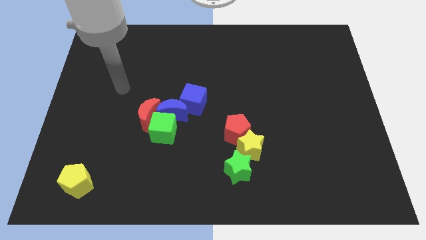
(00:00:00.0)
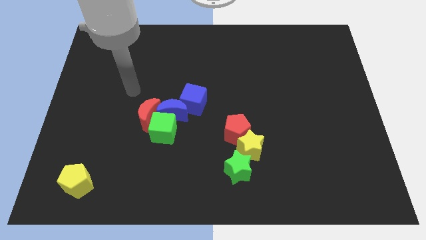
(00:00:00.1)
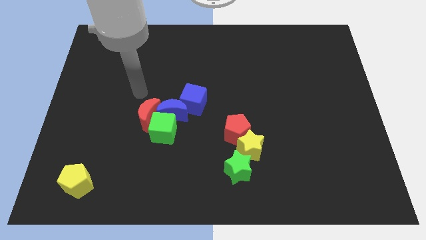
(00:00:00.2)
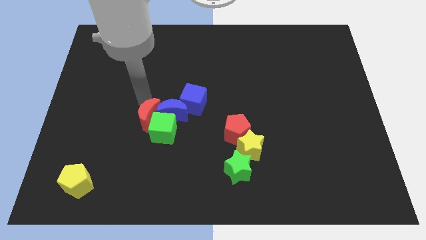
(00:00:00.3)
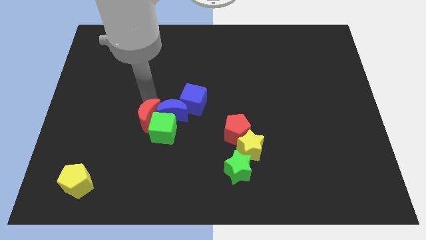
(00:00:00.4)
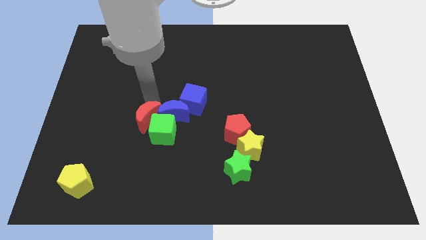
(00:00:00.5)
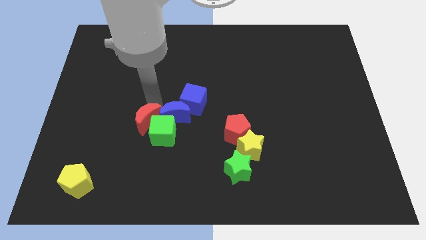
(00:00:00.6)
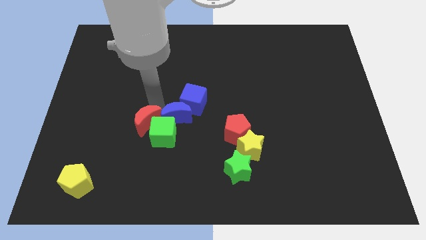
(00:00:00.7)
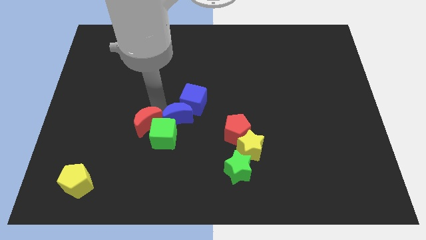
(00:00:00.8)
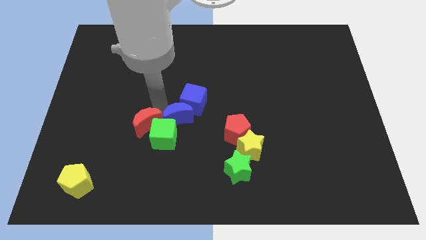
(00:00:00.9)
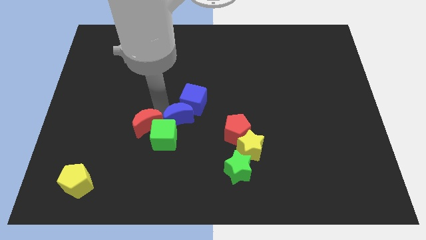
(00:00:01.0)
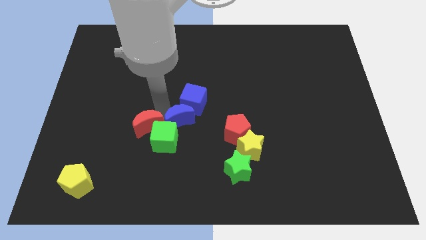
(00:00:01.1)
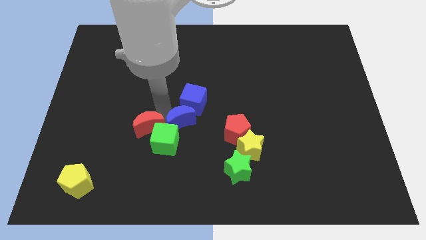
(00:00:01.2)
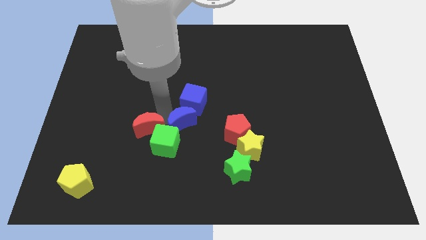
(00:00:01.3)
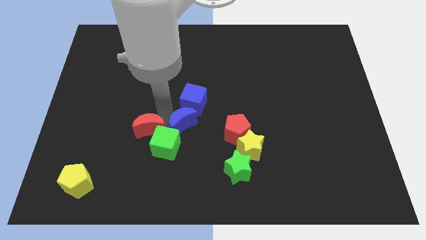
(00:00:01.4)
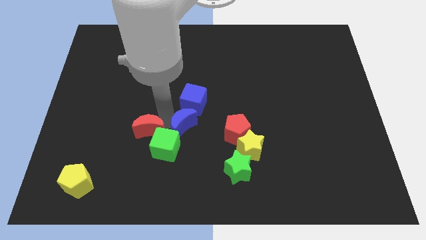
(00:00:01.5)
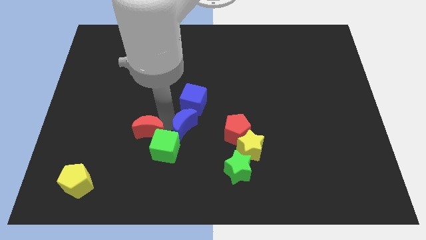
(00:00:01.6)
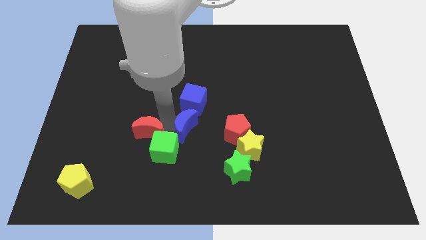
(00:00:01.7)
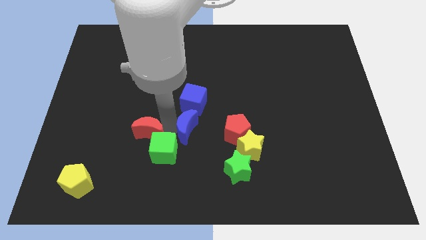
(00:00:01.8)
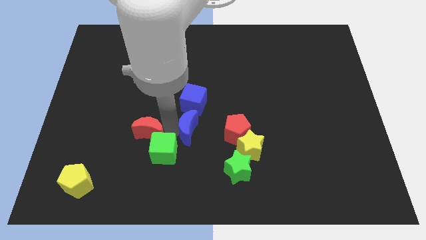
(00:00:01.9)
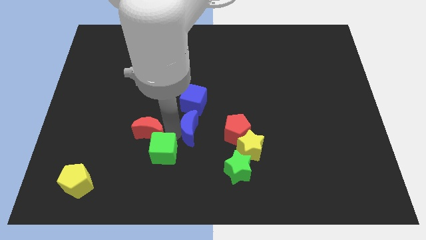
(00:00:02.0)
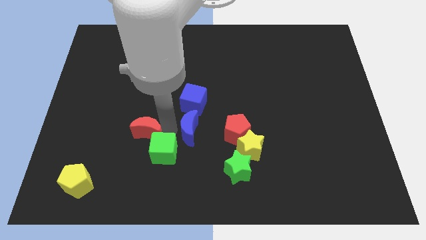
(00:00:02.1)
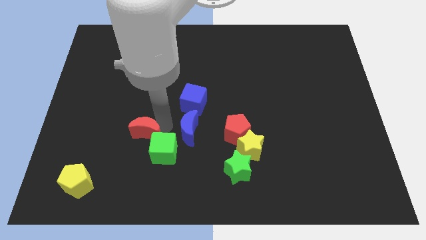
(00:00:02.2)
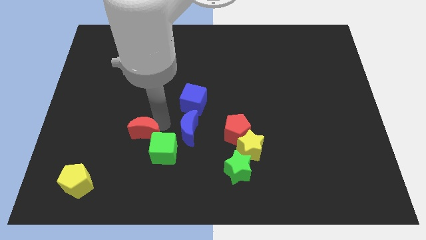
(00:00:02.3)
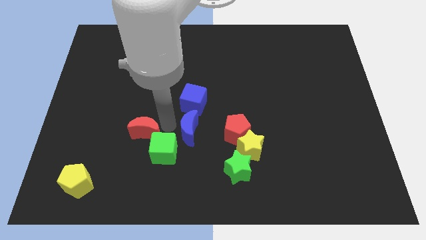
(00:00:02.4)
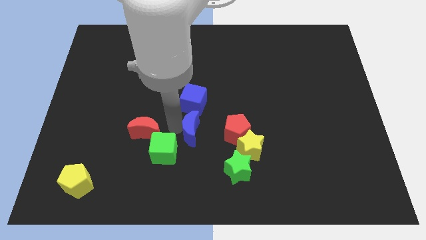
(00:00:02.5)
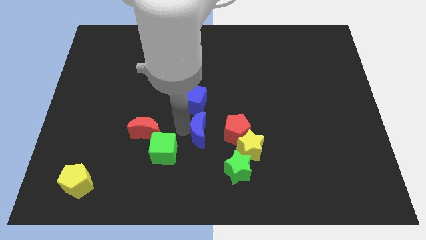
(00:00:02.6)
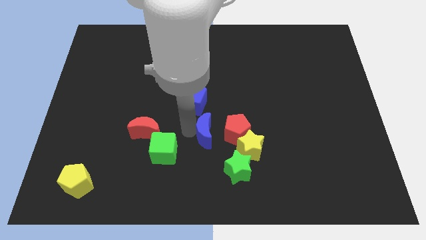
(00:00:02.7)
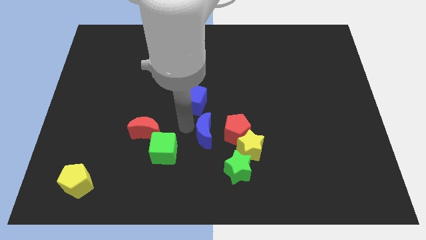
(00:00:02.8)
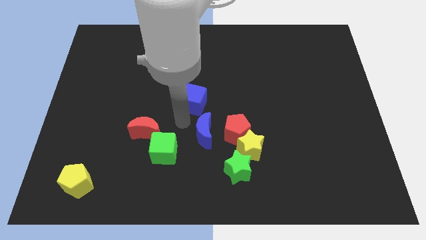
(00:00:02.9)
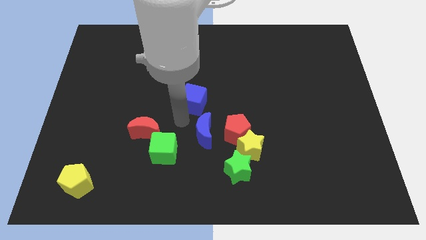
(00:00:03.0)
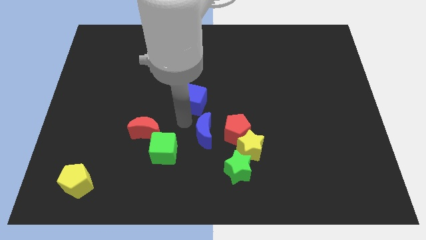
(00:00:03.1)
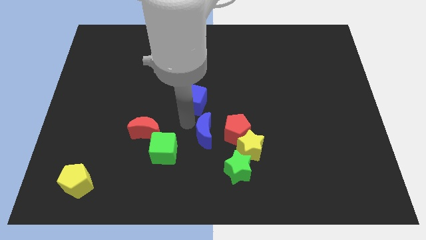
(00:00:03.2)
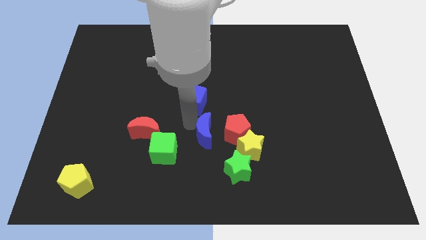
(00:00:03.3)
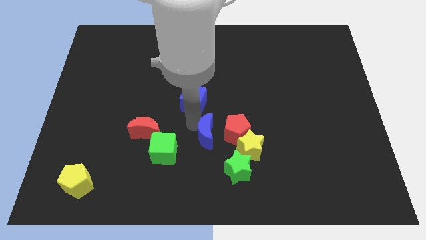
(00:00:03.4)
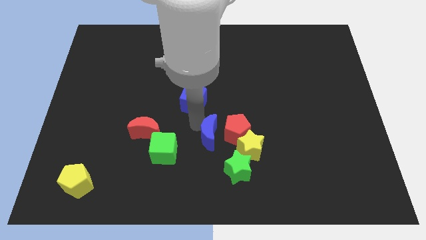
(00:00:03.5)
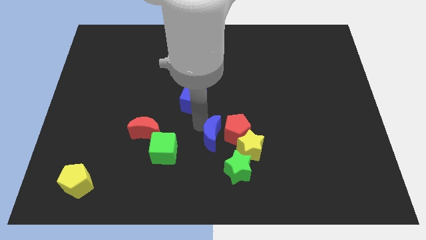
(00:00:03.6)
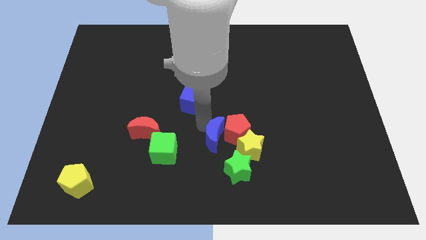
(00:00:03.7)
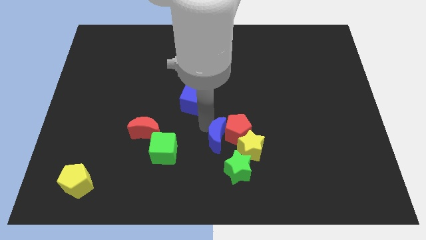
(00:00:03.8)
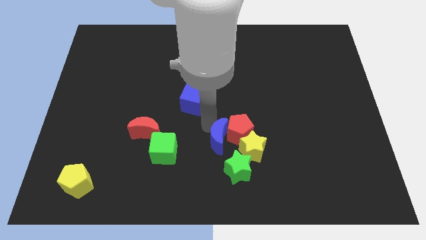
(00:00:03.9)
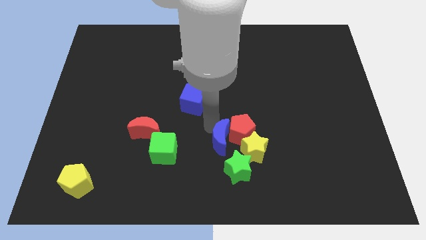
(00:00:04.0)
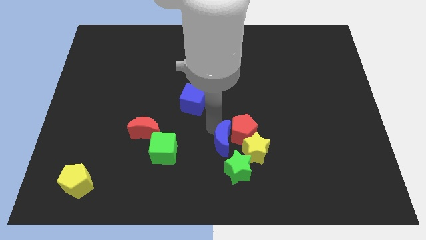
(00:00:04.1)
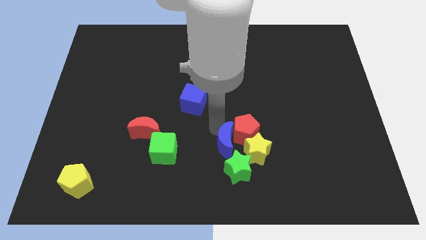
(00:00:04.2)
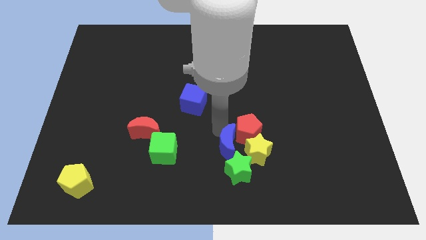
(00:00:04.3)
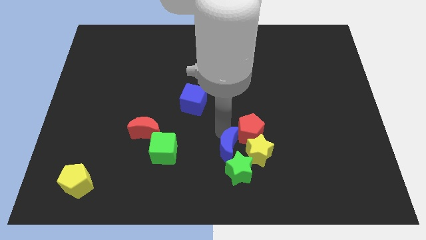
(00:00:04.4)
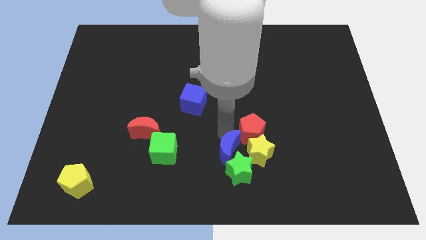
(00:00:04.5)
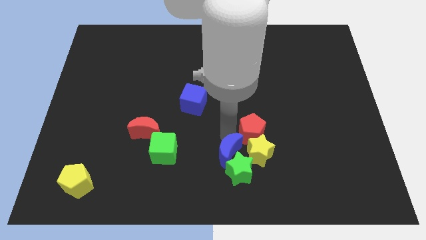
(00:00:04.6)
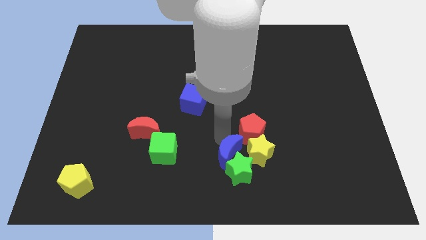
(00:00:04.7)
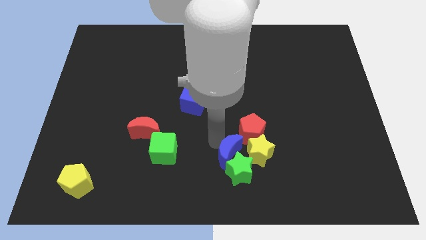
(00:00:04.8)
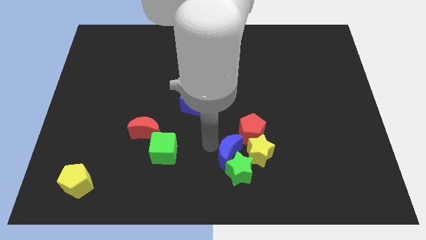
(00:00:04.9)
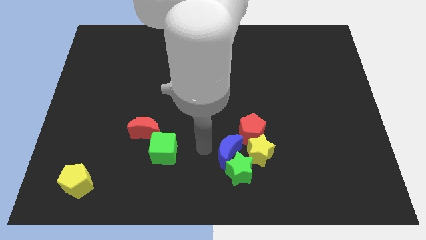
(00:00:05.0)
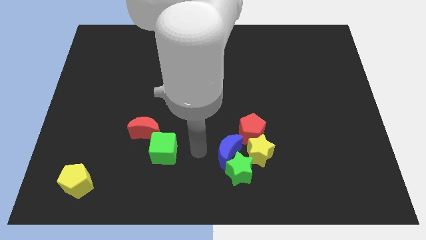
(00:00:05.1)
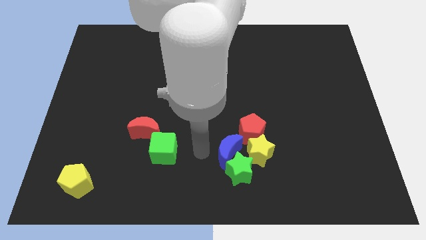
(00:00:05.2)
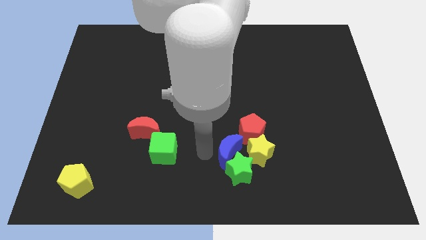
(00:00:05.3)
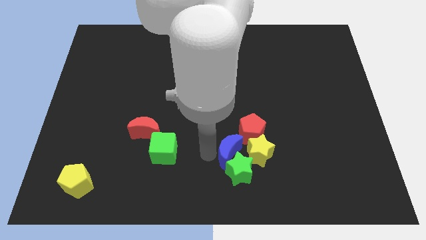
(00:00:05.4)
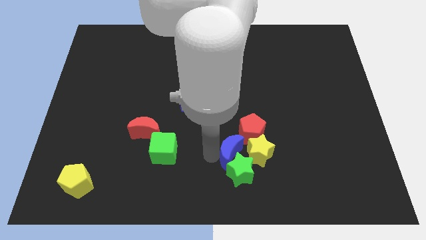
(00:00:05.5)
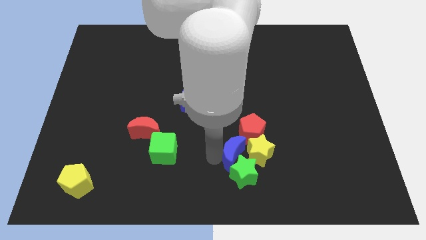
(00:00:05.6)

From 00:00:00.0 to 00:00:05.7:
push the blue moon close to the yellow star

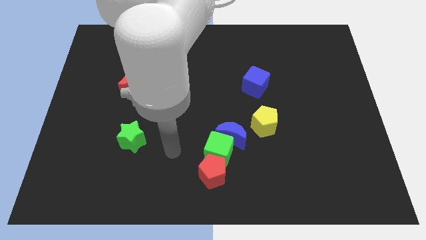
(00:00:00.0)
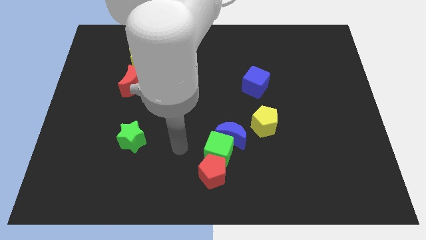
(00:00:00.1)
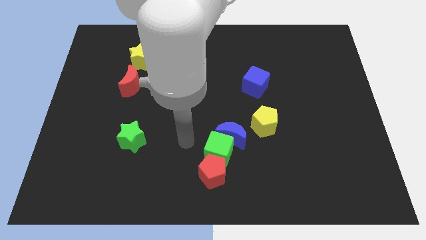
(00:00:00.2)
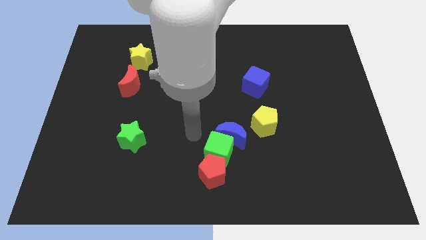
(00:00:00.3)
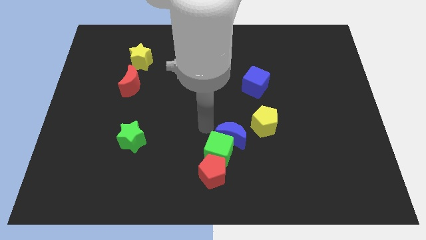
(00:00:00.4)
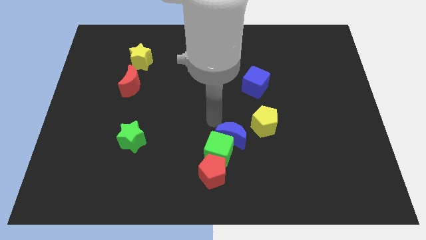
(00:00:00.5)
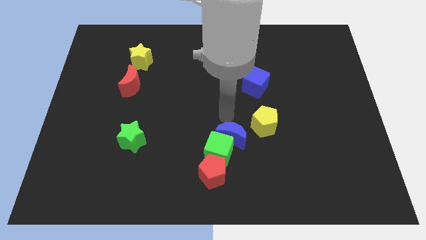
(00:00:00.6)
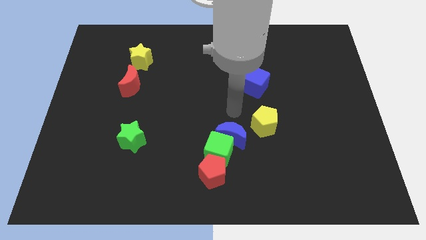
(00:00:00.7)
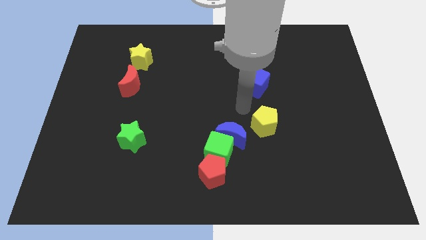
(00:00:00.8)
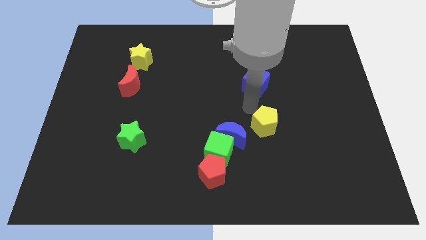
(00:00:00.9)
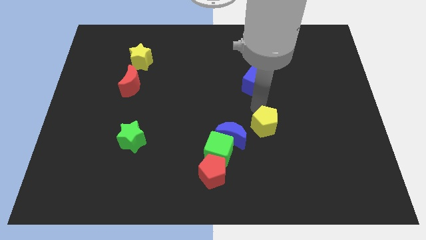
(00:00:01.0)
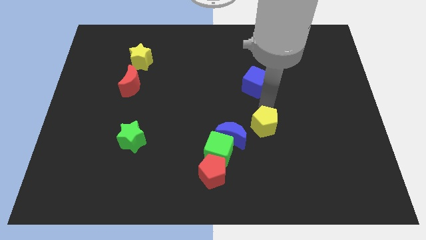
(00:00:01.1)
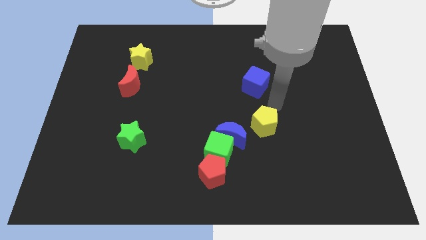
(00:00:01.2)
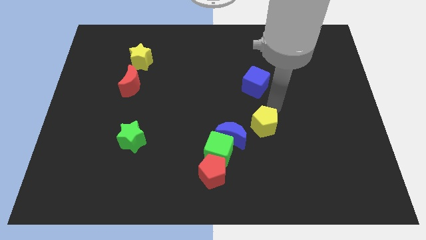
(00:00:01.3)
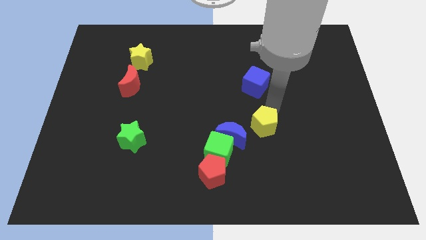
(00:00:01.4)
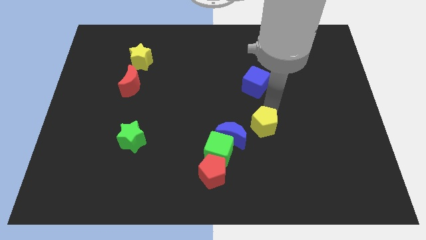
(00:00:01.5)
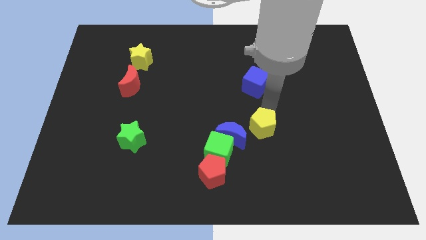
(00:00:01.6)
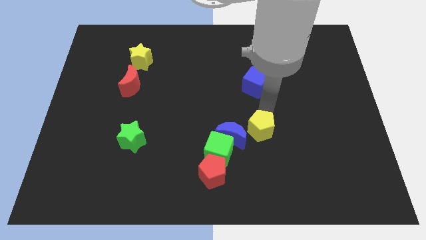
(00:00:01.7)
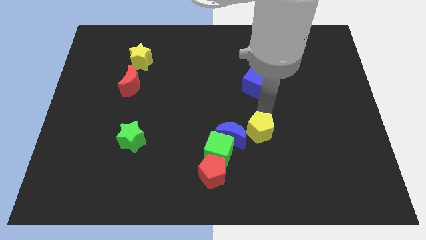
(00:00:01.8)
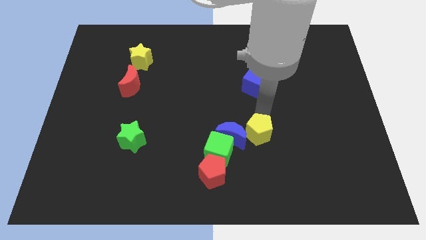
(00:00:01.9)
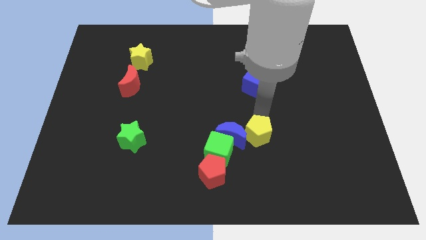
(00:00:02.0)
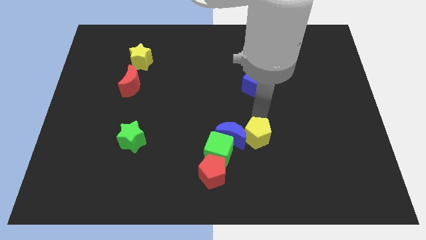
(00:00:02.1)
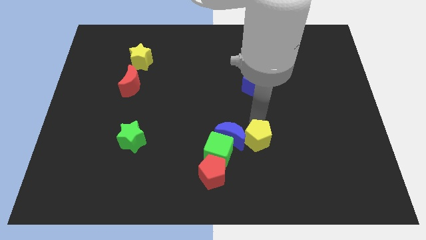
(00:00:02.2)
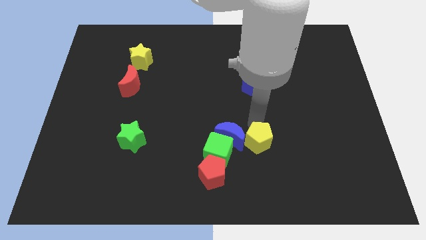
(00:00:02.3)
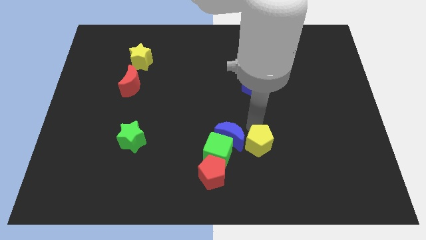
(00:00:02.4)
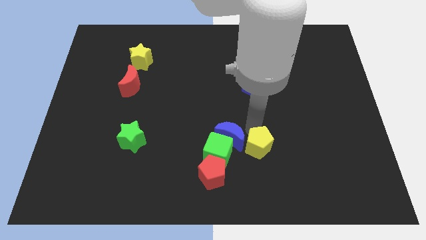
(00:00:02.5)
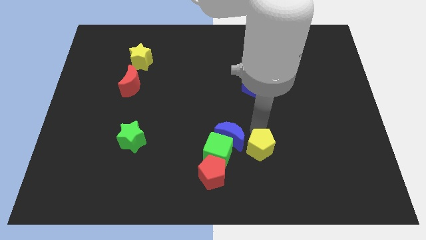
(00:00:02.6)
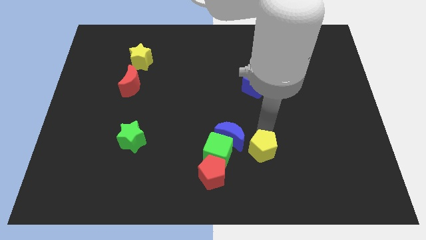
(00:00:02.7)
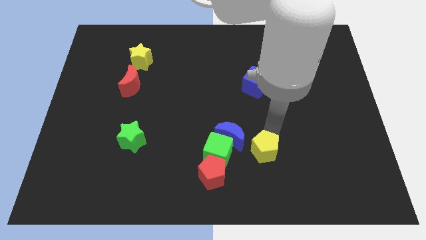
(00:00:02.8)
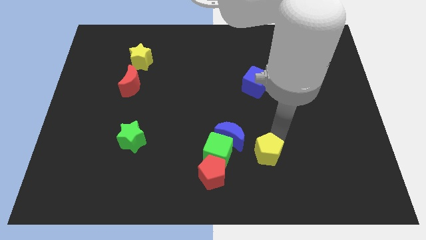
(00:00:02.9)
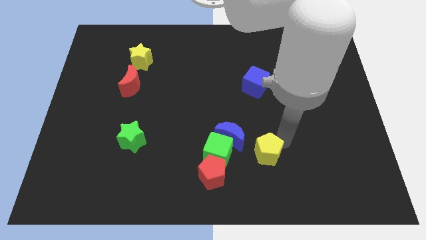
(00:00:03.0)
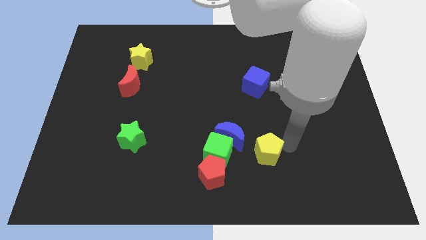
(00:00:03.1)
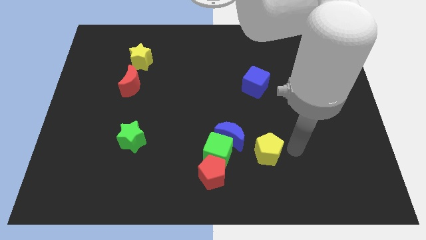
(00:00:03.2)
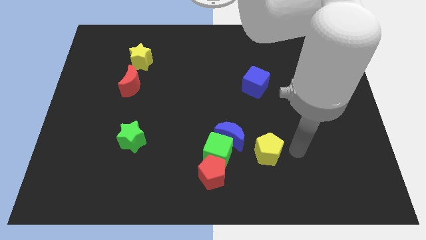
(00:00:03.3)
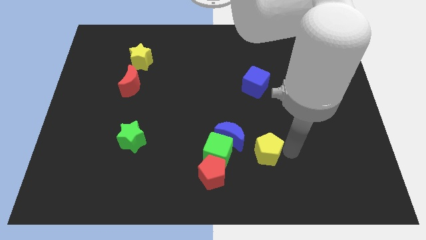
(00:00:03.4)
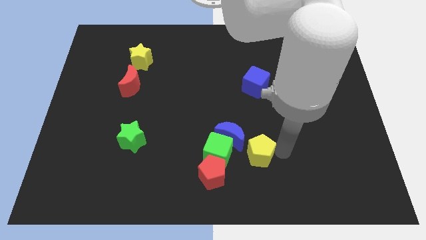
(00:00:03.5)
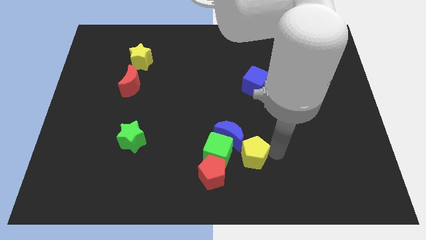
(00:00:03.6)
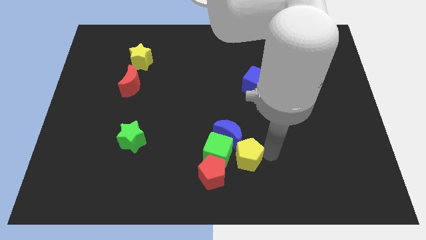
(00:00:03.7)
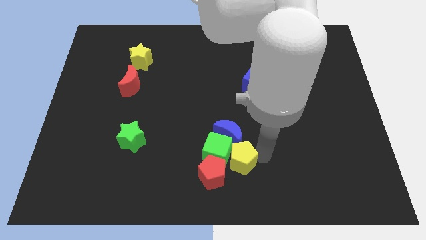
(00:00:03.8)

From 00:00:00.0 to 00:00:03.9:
push the yellow pentagon close to the green cube
